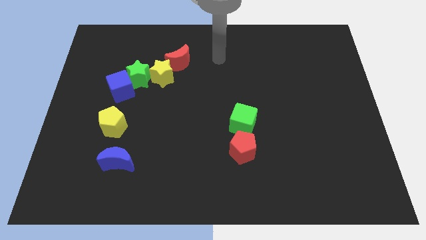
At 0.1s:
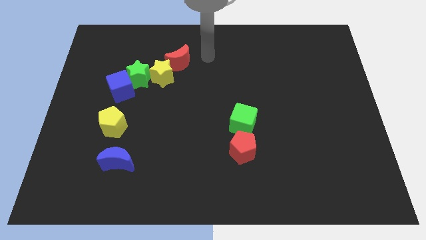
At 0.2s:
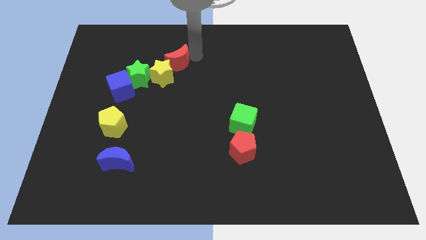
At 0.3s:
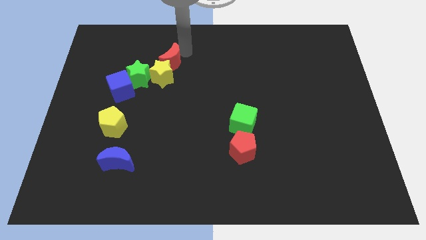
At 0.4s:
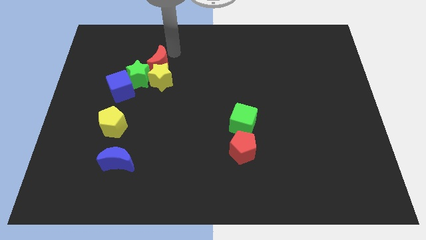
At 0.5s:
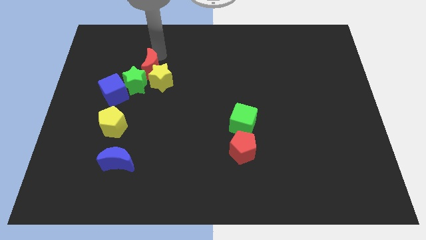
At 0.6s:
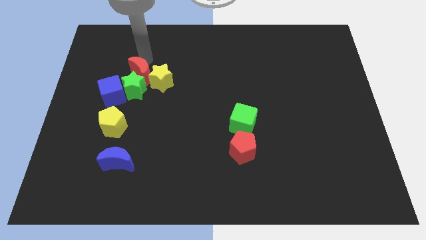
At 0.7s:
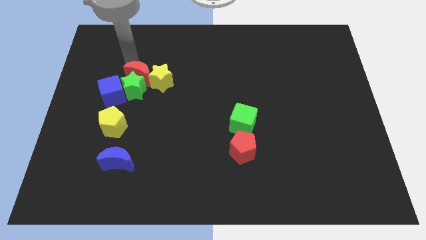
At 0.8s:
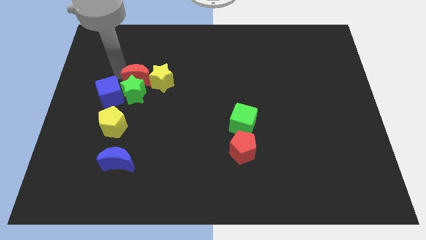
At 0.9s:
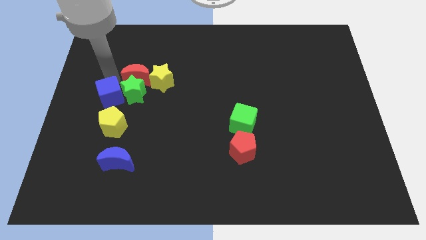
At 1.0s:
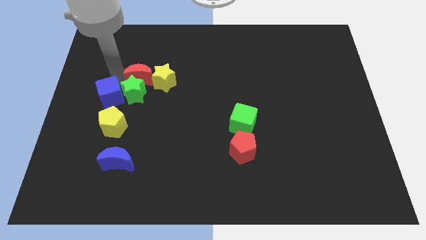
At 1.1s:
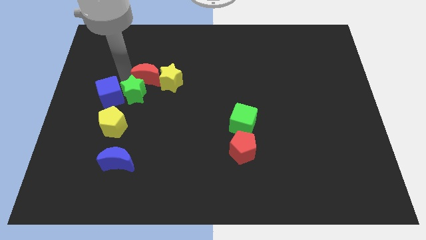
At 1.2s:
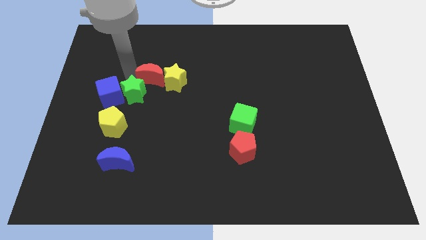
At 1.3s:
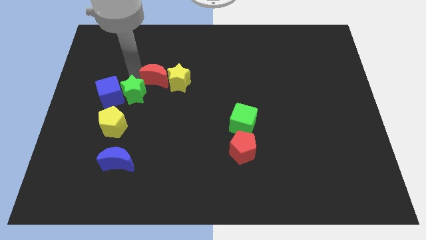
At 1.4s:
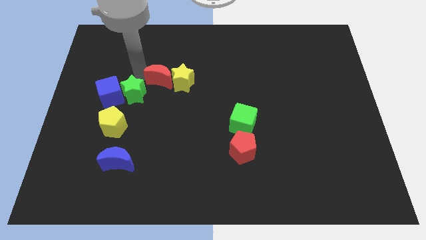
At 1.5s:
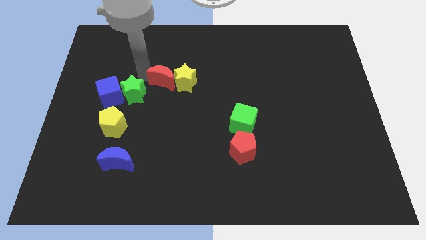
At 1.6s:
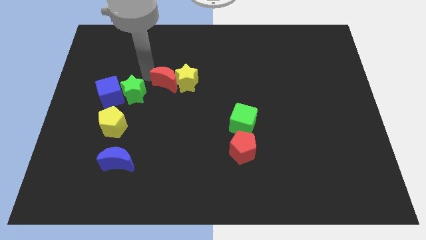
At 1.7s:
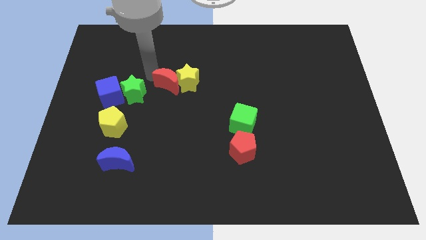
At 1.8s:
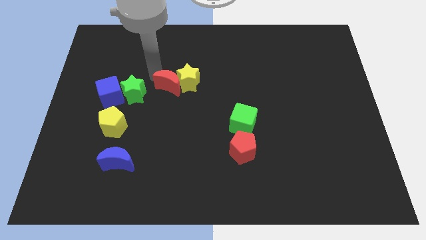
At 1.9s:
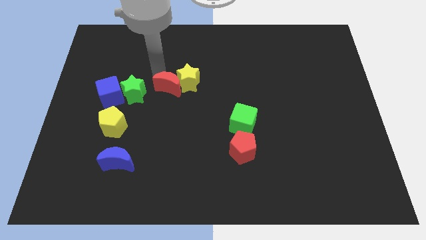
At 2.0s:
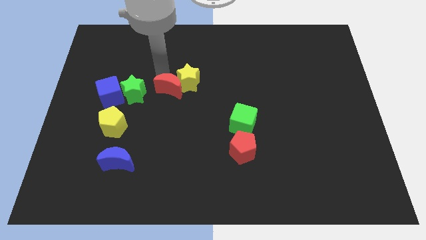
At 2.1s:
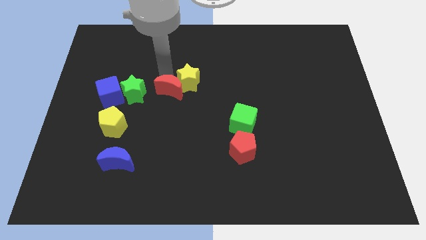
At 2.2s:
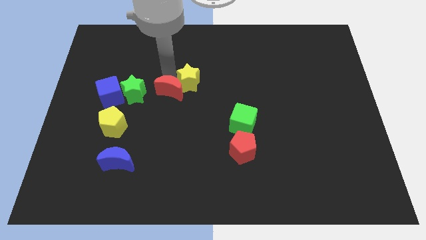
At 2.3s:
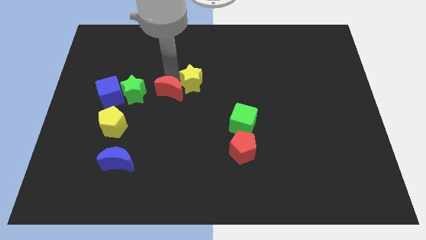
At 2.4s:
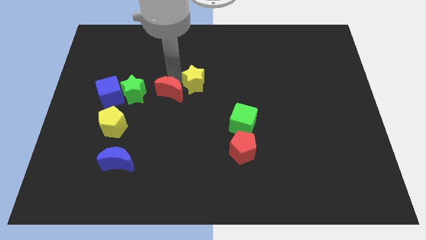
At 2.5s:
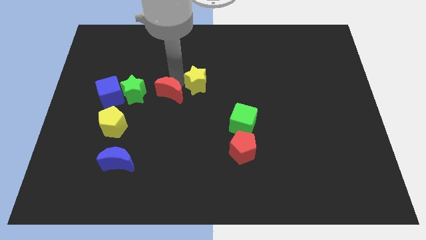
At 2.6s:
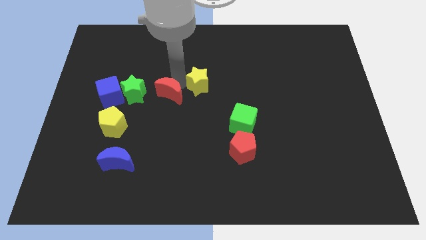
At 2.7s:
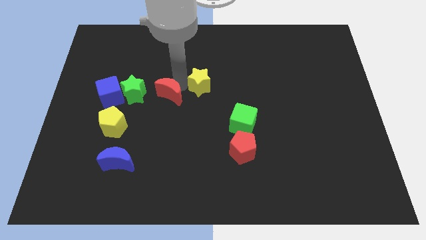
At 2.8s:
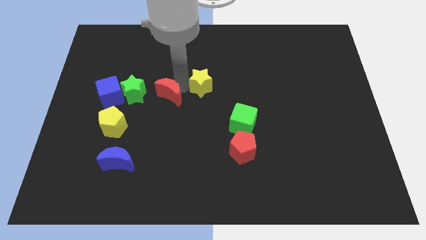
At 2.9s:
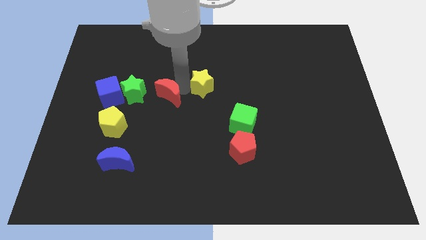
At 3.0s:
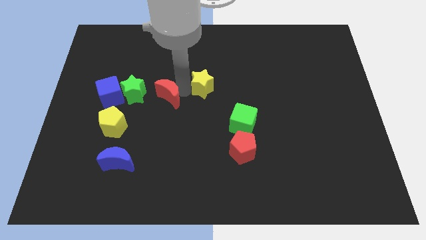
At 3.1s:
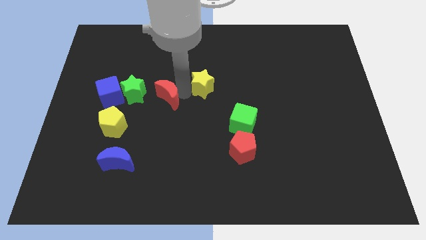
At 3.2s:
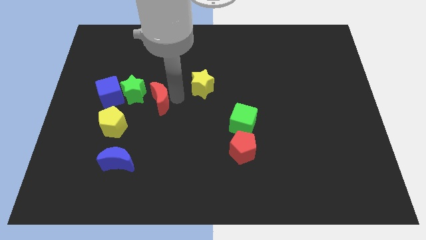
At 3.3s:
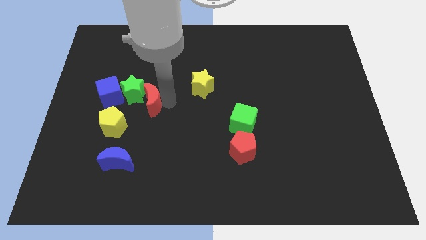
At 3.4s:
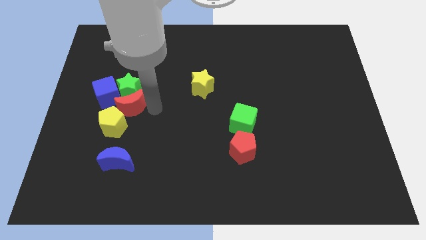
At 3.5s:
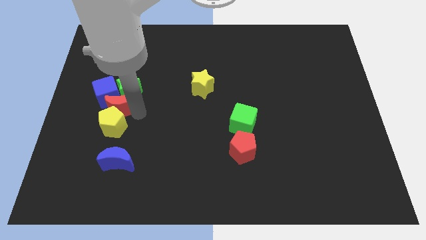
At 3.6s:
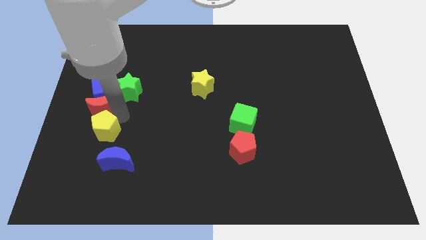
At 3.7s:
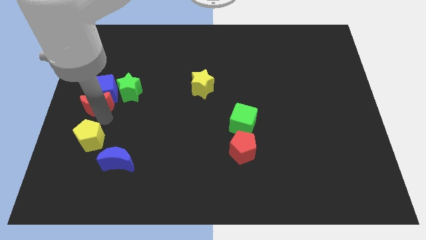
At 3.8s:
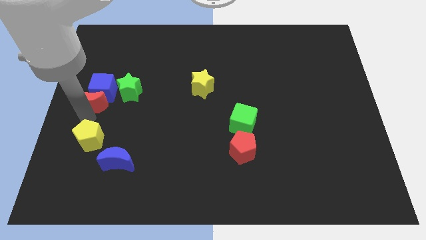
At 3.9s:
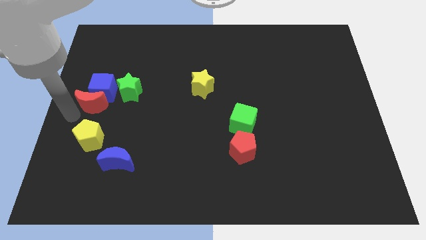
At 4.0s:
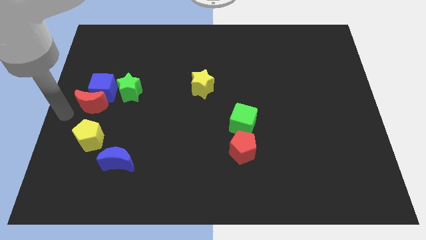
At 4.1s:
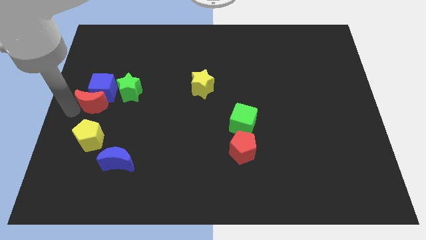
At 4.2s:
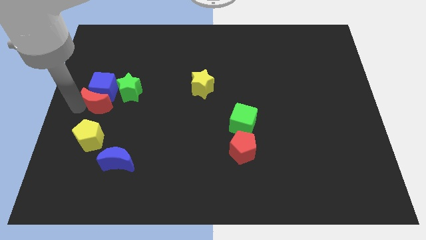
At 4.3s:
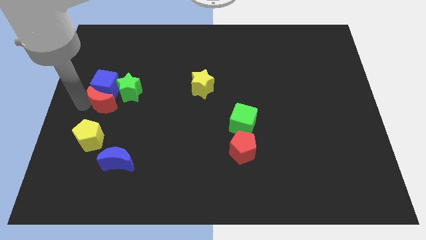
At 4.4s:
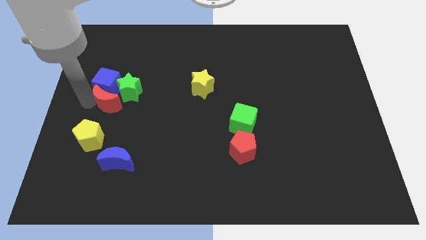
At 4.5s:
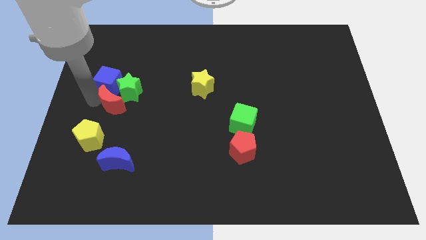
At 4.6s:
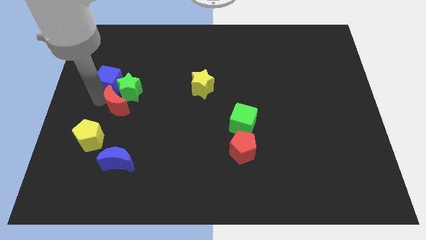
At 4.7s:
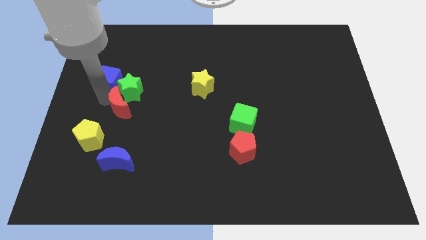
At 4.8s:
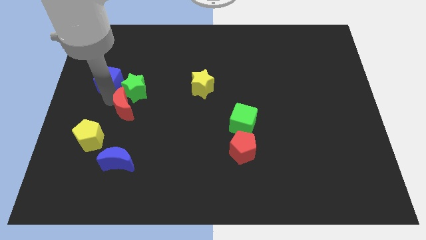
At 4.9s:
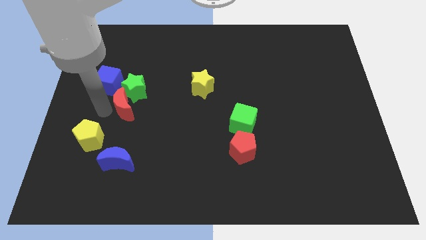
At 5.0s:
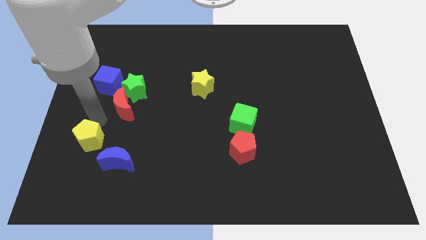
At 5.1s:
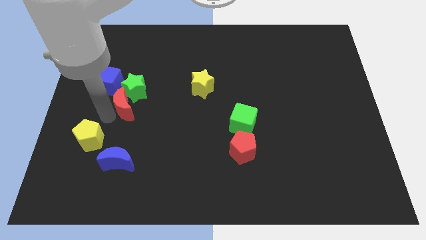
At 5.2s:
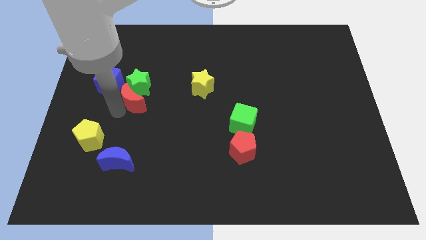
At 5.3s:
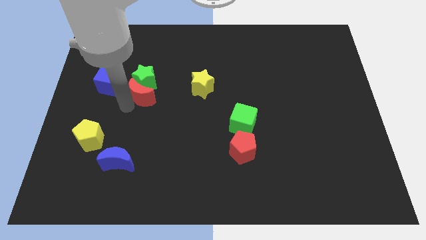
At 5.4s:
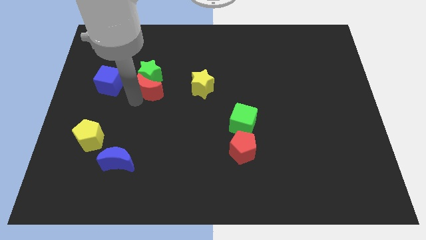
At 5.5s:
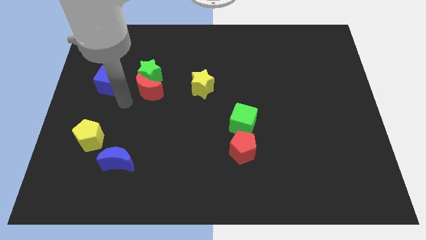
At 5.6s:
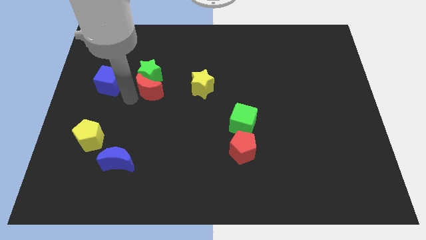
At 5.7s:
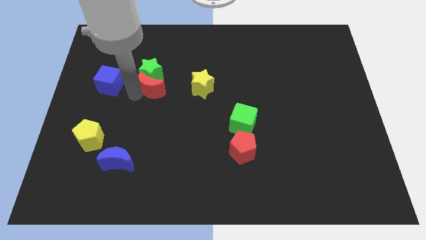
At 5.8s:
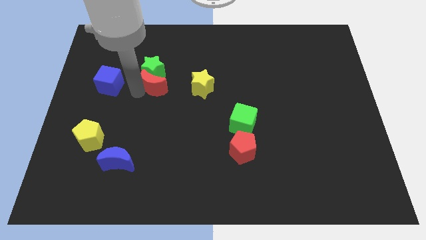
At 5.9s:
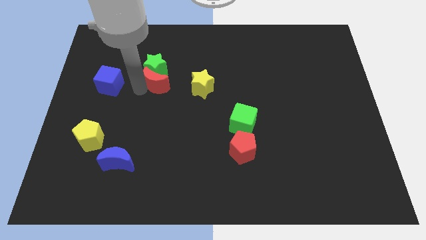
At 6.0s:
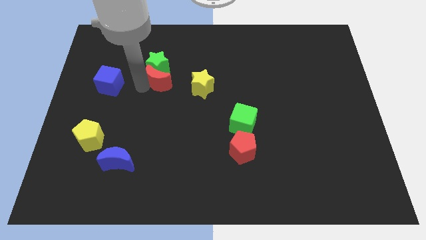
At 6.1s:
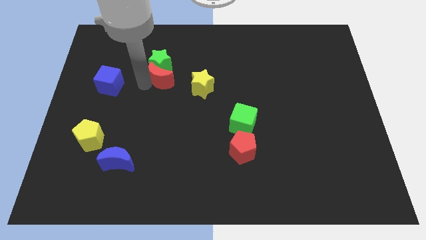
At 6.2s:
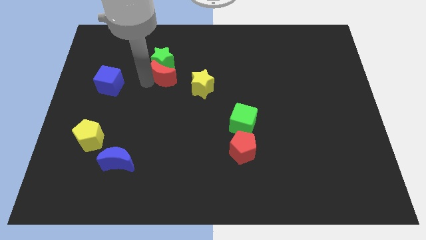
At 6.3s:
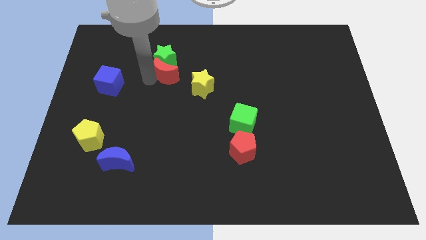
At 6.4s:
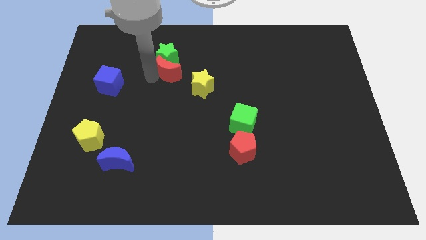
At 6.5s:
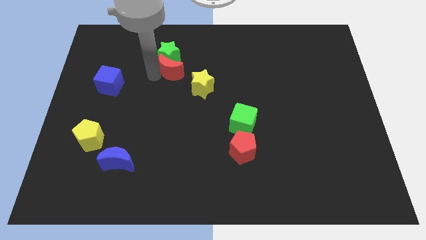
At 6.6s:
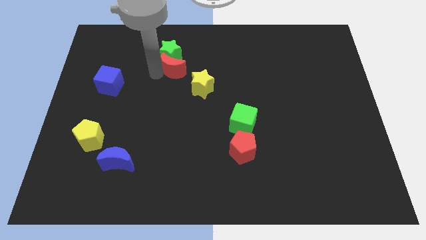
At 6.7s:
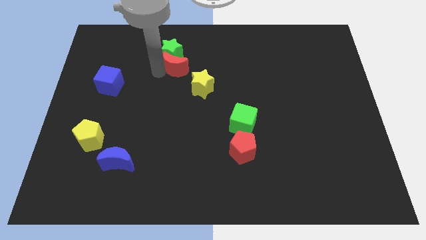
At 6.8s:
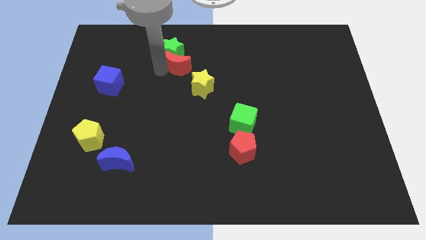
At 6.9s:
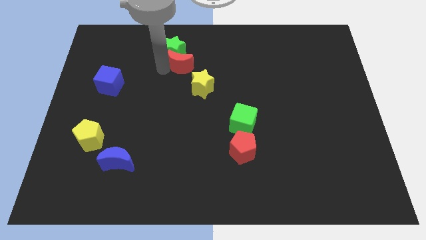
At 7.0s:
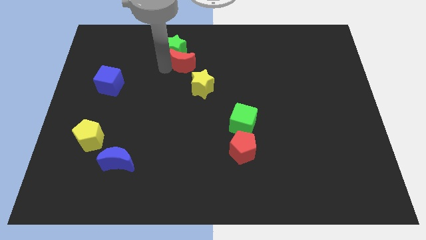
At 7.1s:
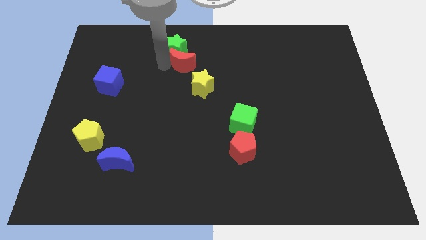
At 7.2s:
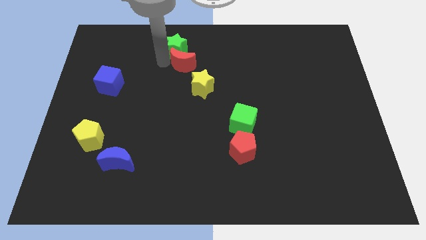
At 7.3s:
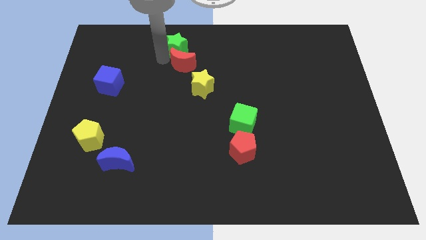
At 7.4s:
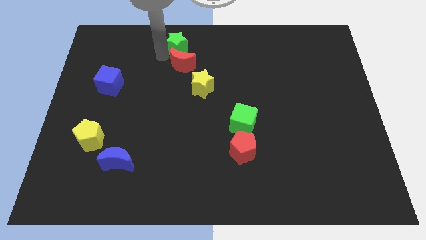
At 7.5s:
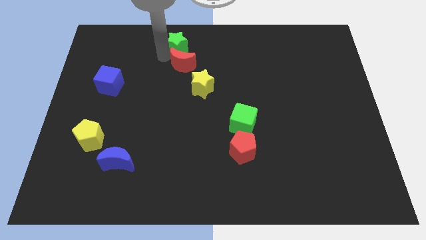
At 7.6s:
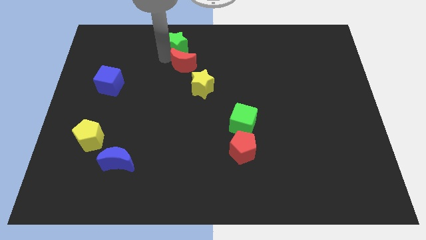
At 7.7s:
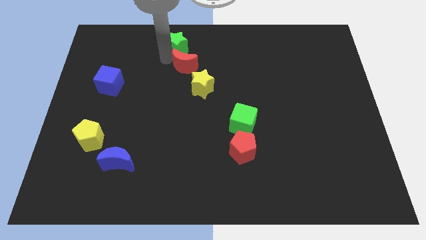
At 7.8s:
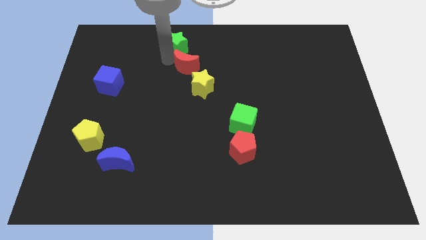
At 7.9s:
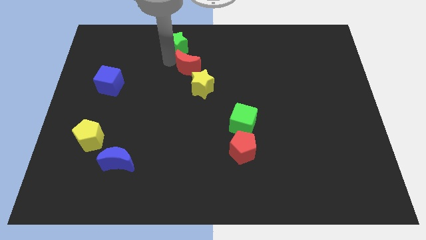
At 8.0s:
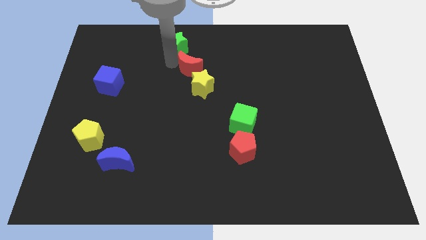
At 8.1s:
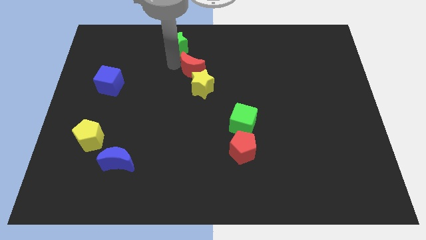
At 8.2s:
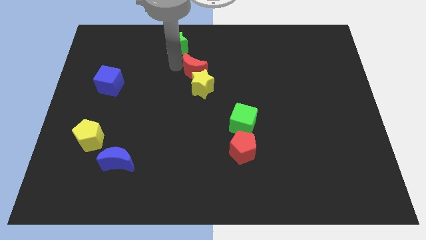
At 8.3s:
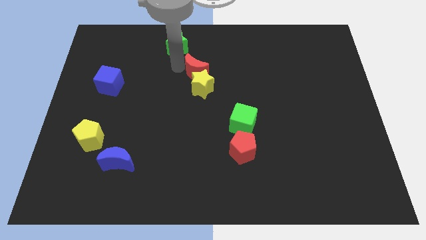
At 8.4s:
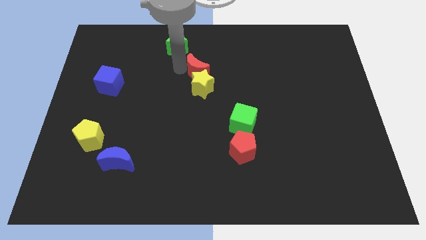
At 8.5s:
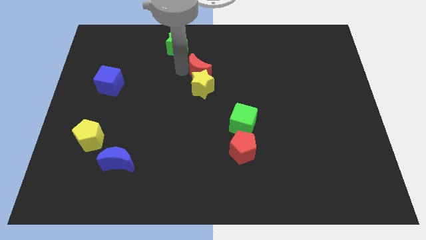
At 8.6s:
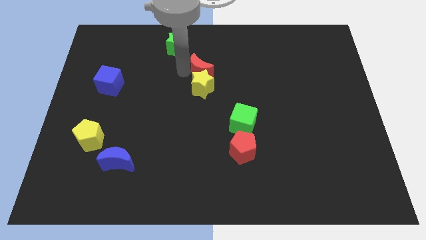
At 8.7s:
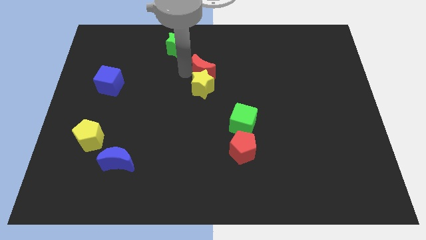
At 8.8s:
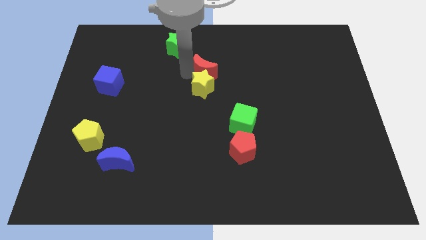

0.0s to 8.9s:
slide the red moon a little bit down and right diagonally
